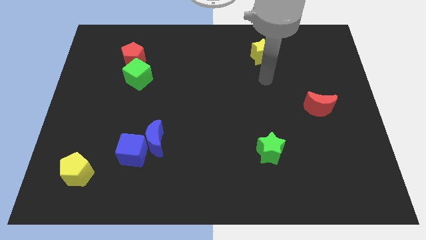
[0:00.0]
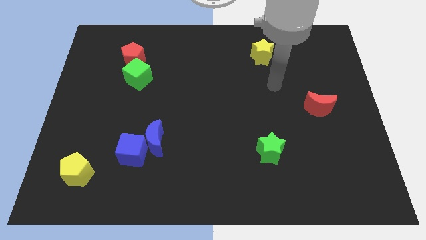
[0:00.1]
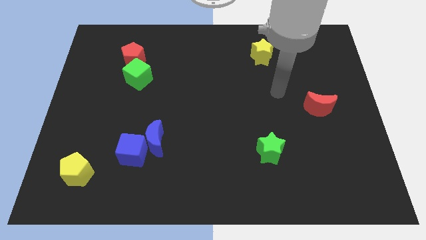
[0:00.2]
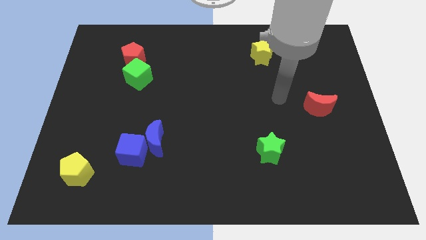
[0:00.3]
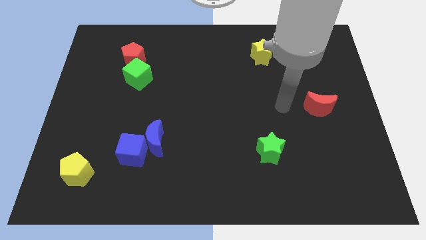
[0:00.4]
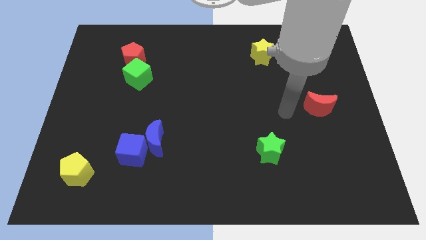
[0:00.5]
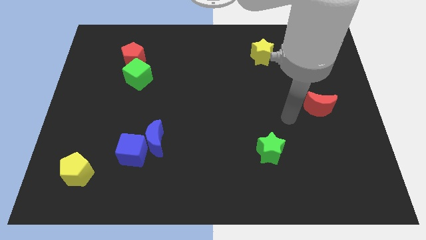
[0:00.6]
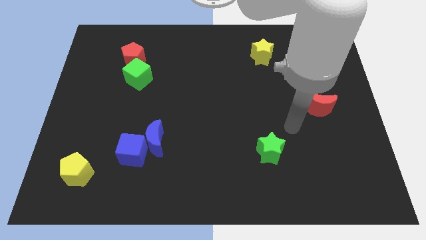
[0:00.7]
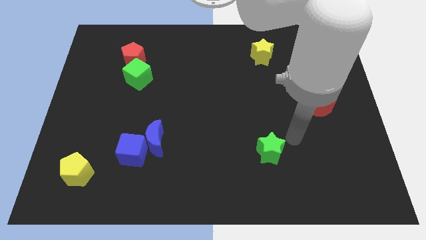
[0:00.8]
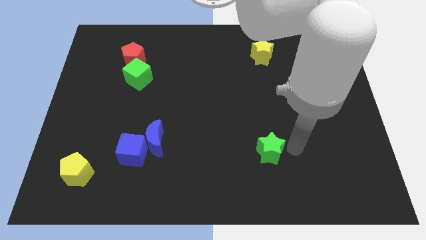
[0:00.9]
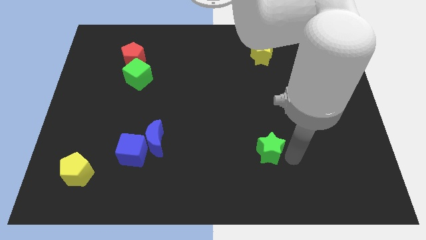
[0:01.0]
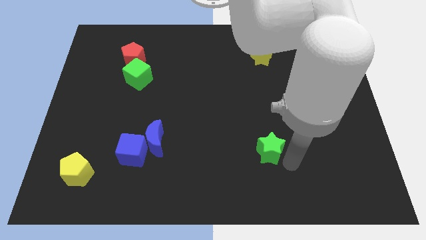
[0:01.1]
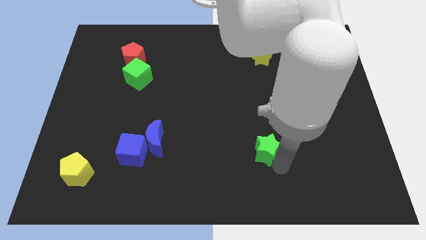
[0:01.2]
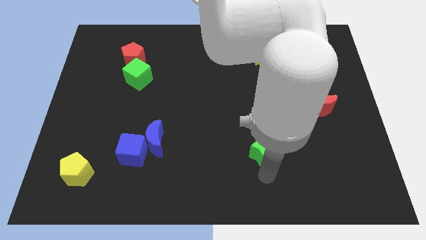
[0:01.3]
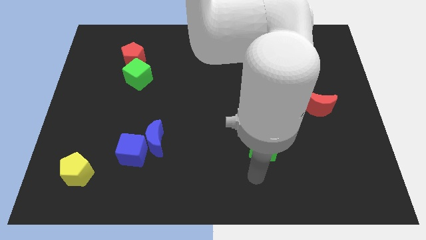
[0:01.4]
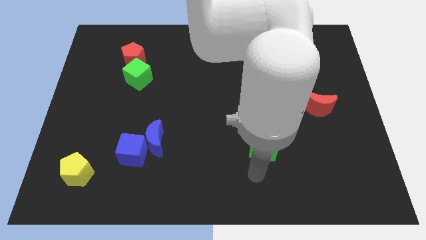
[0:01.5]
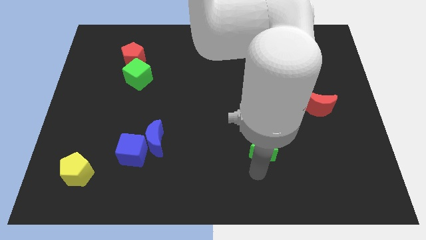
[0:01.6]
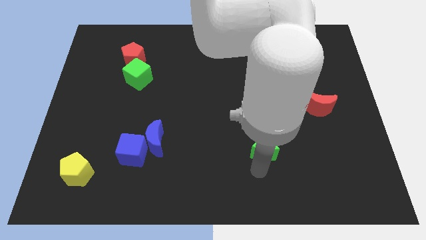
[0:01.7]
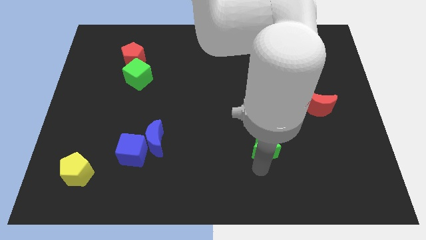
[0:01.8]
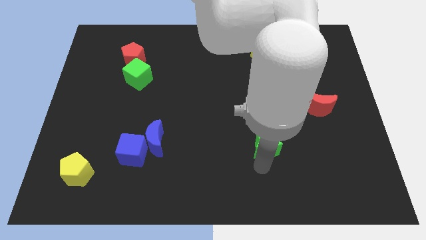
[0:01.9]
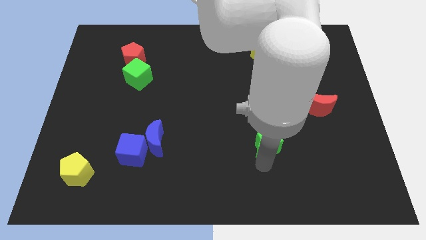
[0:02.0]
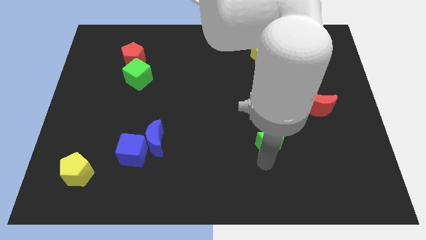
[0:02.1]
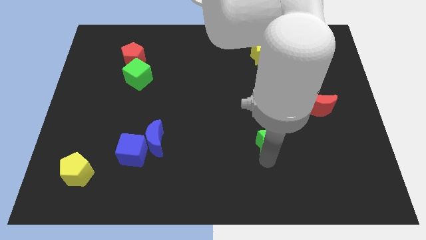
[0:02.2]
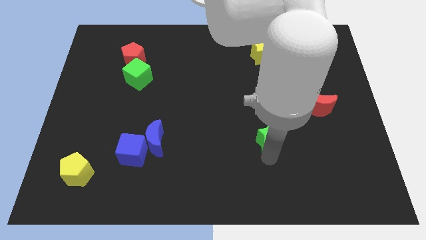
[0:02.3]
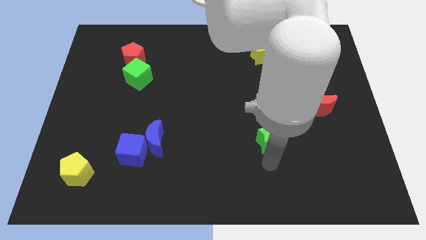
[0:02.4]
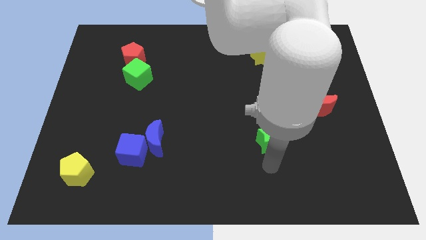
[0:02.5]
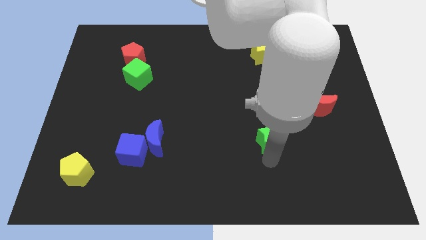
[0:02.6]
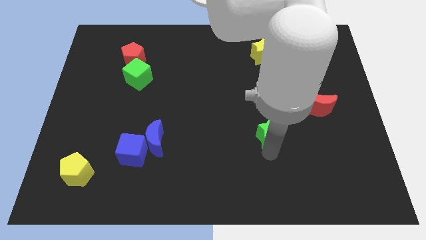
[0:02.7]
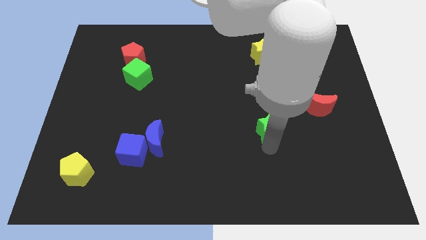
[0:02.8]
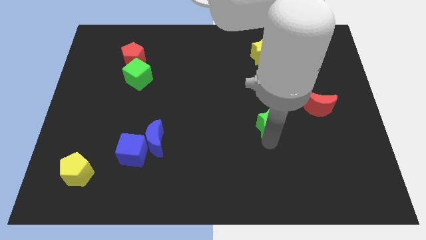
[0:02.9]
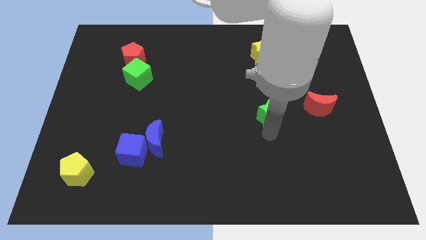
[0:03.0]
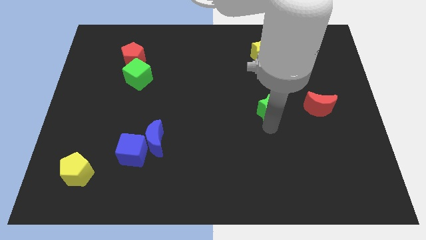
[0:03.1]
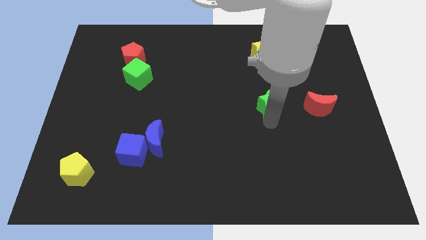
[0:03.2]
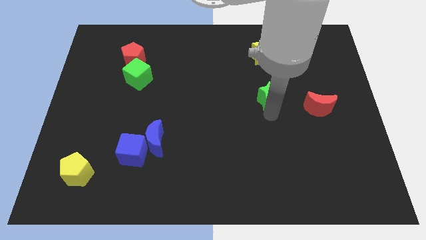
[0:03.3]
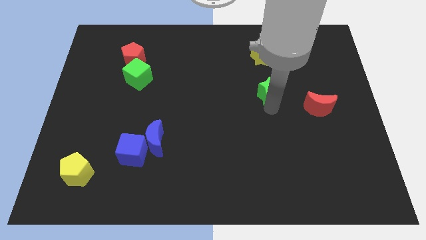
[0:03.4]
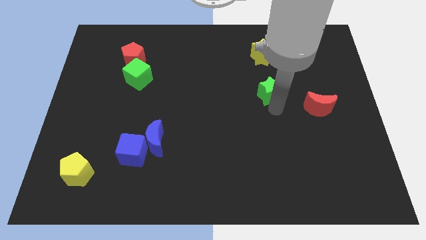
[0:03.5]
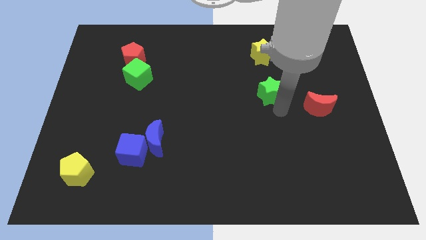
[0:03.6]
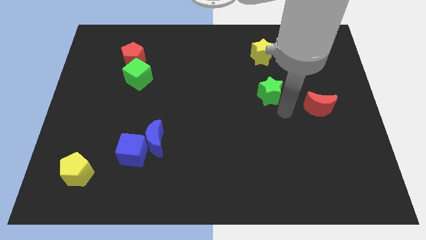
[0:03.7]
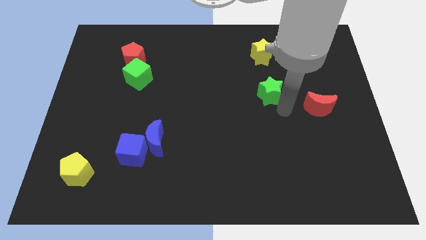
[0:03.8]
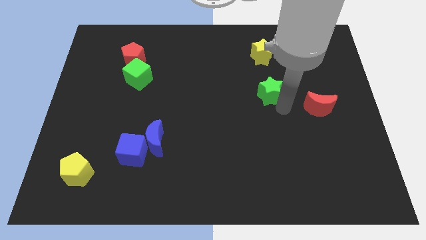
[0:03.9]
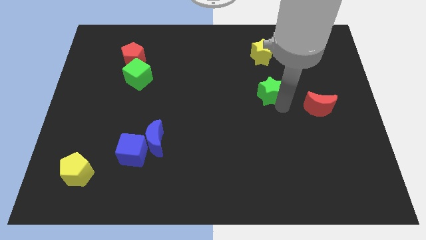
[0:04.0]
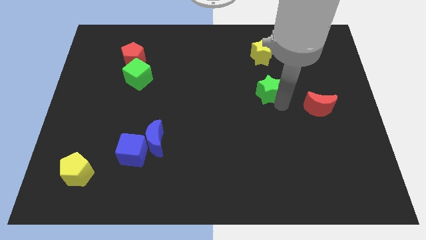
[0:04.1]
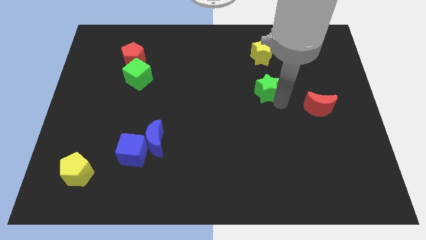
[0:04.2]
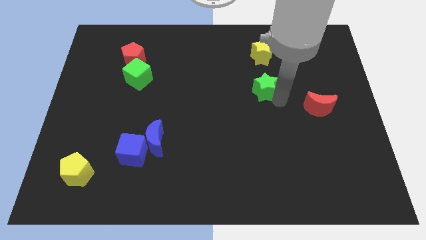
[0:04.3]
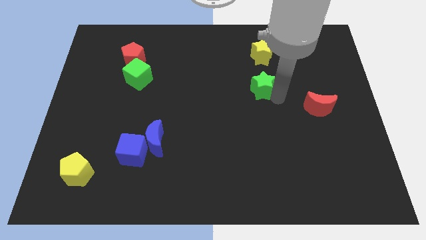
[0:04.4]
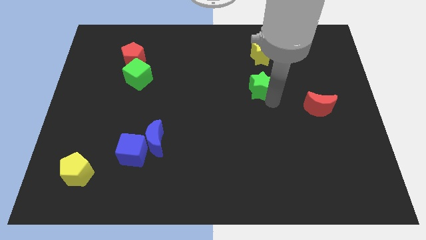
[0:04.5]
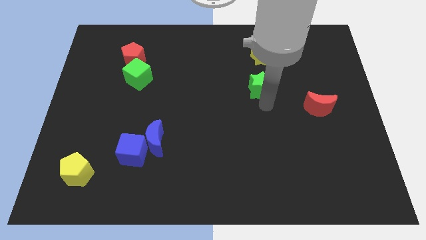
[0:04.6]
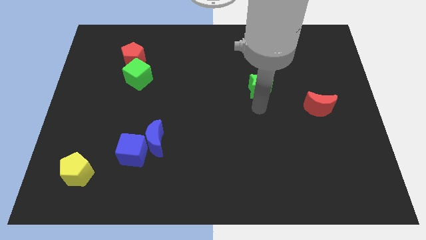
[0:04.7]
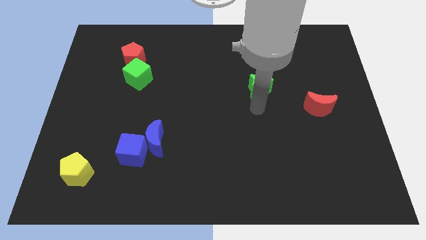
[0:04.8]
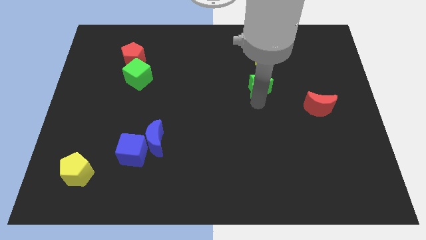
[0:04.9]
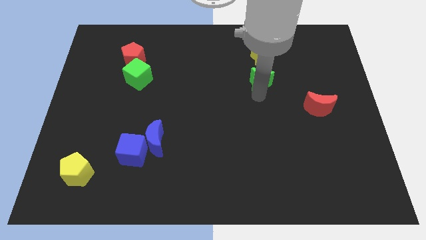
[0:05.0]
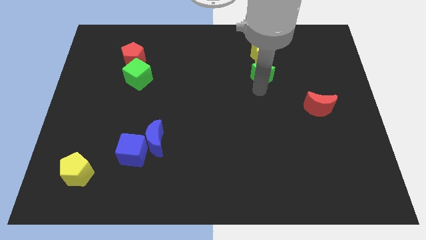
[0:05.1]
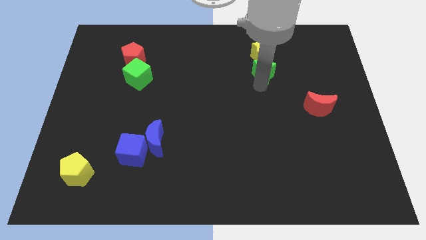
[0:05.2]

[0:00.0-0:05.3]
slide the green star towards the yellow star

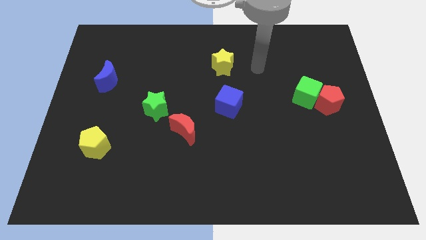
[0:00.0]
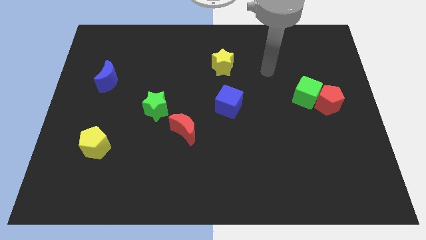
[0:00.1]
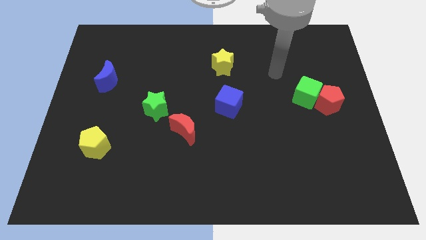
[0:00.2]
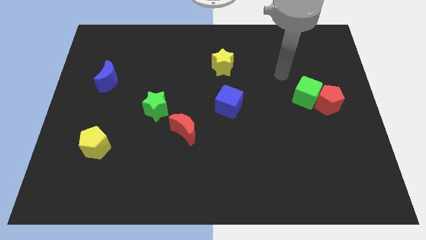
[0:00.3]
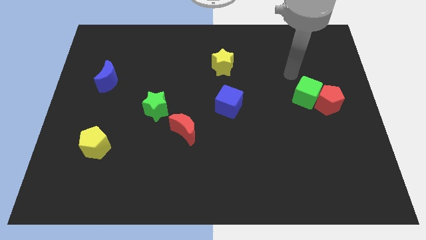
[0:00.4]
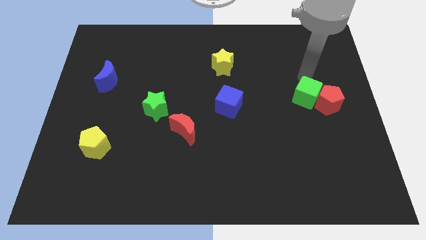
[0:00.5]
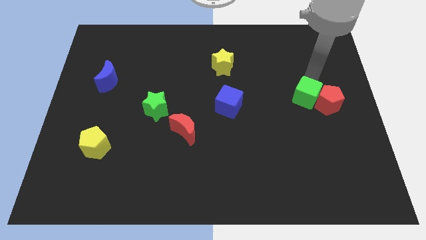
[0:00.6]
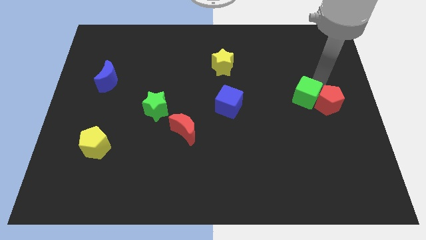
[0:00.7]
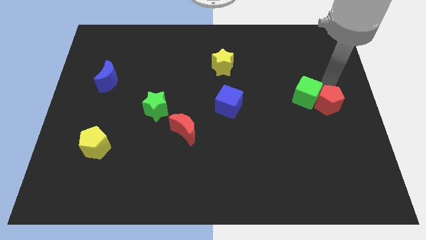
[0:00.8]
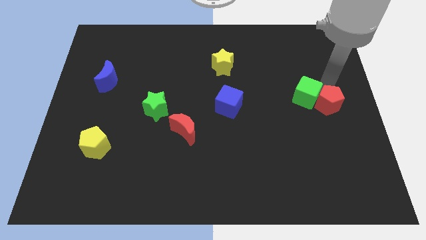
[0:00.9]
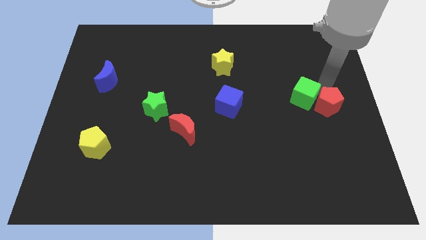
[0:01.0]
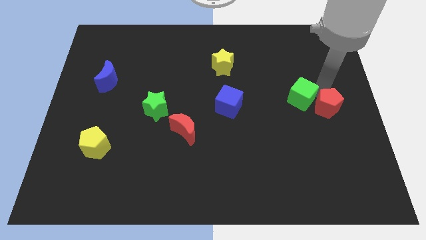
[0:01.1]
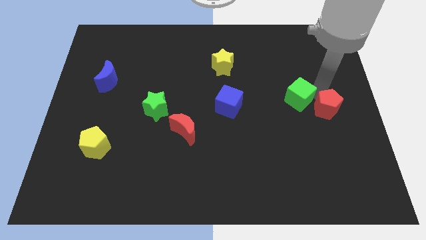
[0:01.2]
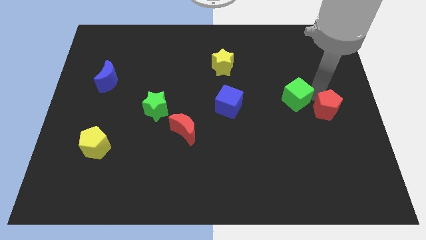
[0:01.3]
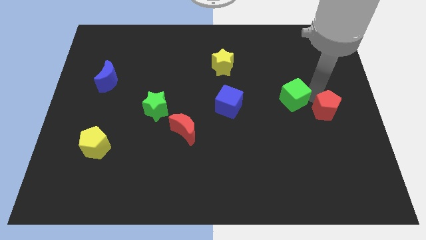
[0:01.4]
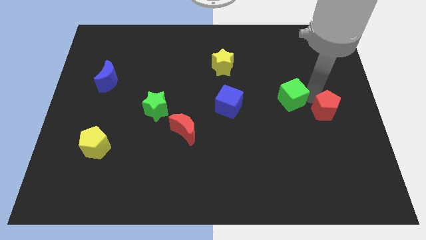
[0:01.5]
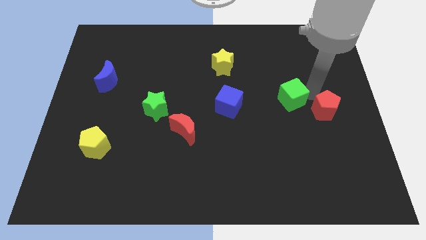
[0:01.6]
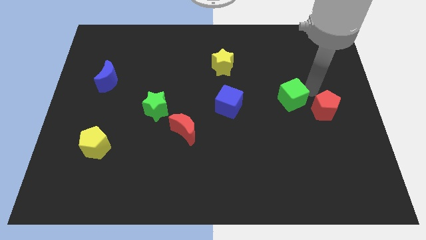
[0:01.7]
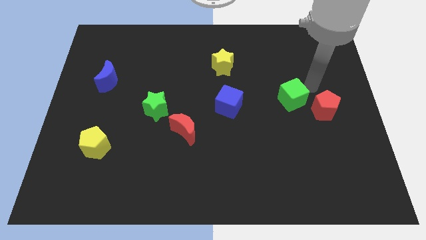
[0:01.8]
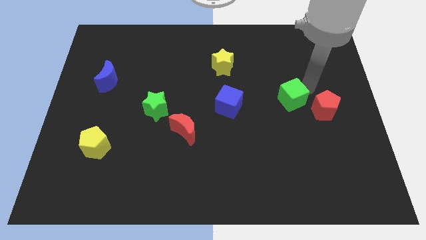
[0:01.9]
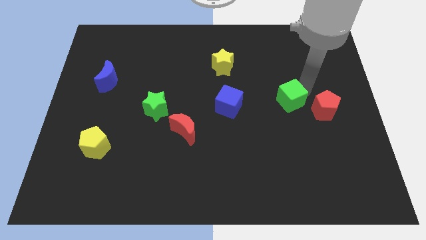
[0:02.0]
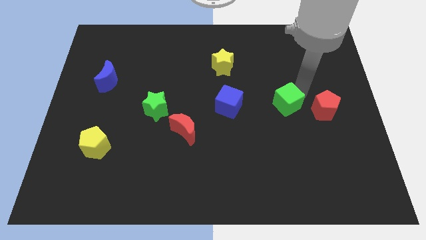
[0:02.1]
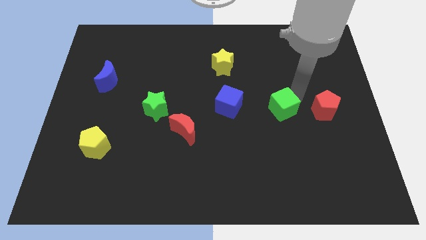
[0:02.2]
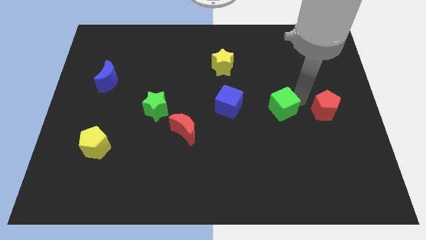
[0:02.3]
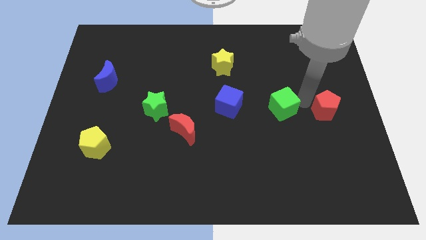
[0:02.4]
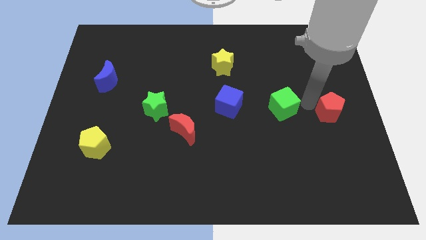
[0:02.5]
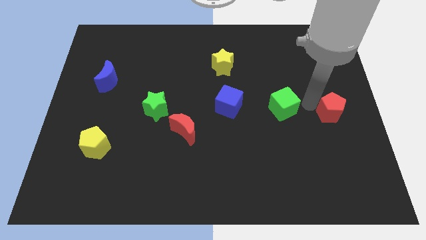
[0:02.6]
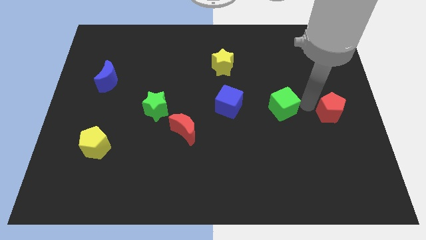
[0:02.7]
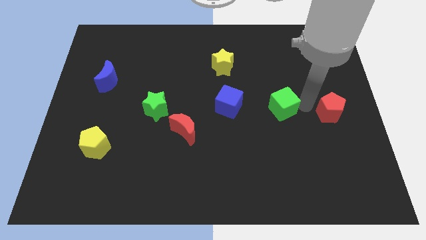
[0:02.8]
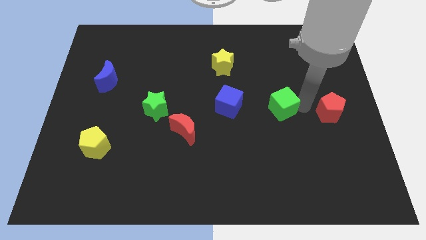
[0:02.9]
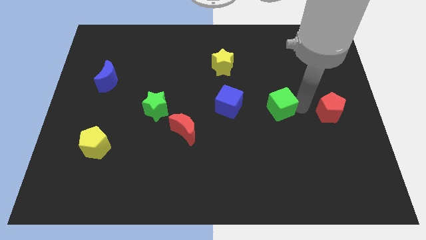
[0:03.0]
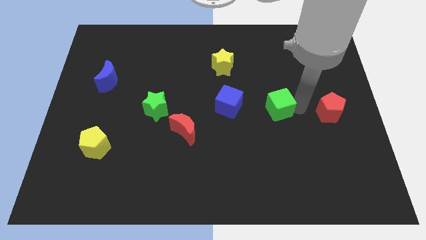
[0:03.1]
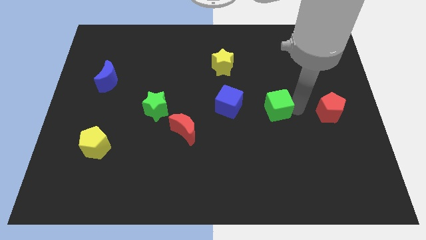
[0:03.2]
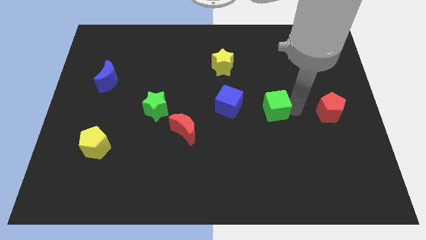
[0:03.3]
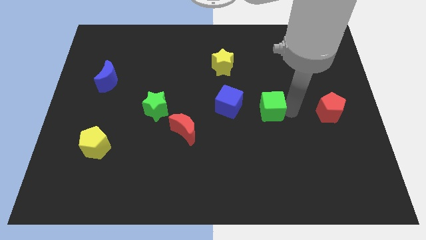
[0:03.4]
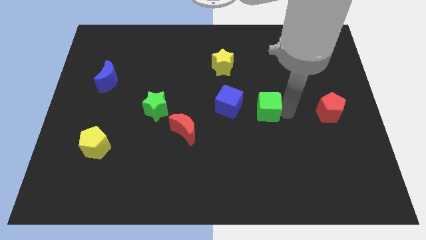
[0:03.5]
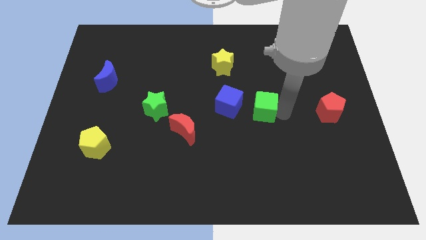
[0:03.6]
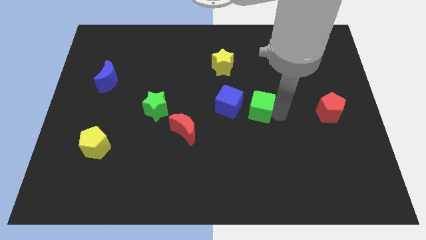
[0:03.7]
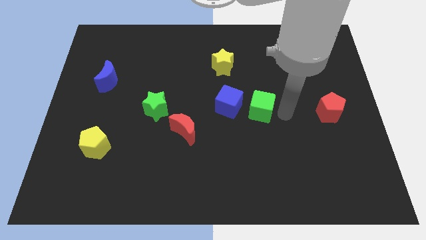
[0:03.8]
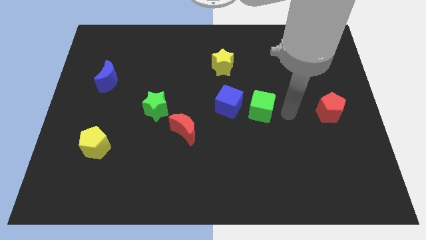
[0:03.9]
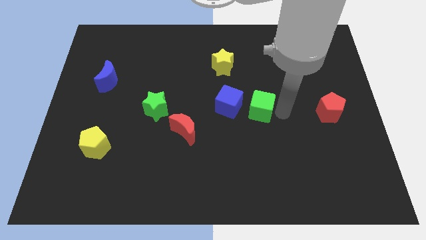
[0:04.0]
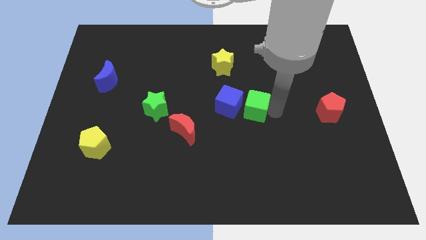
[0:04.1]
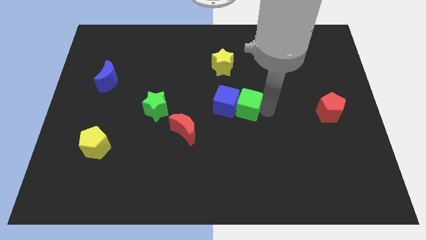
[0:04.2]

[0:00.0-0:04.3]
move the green cube next to the blue cube
